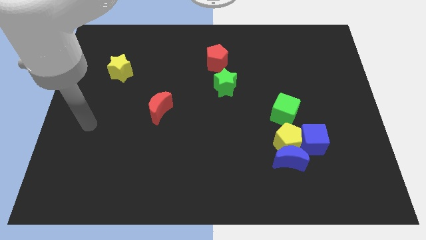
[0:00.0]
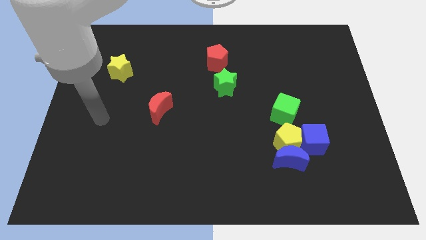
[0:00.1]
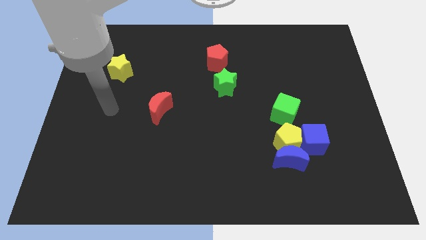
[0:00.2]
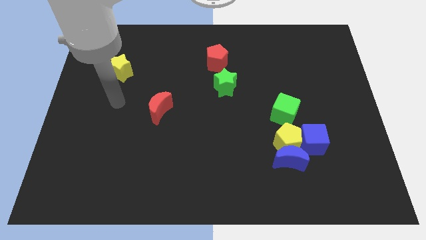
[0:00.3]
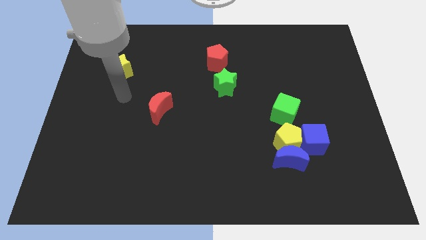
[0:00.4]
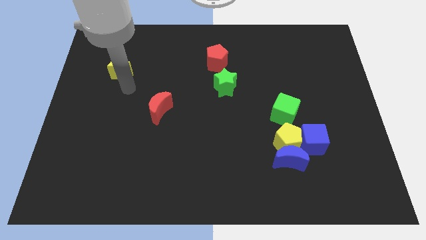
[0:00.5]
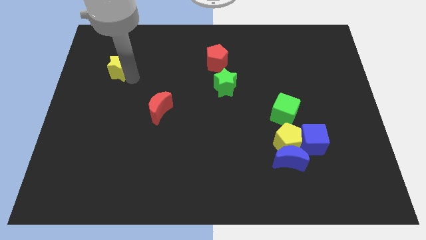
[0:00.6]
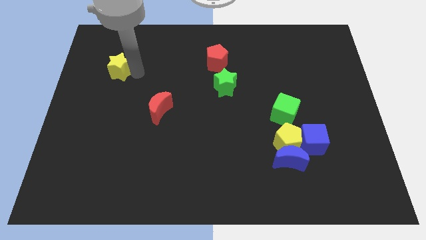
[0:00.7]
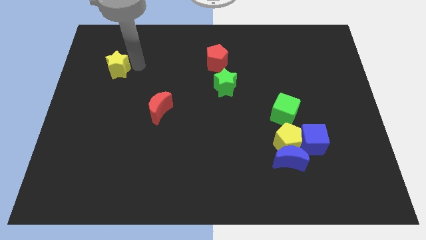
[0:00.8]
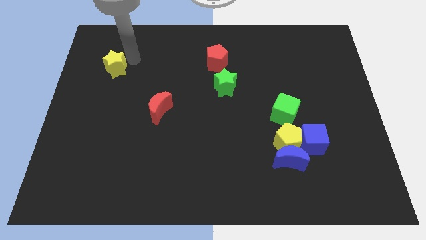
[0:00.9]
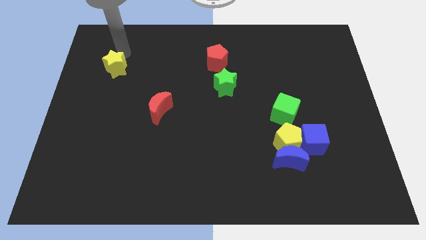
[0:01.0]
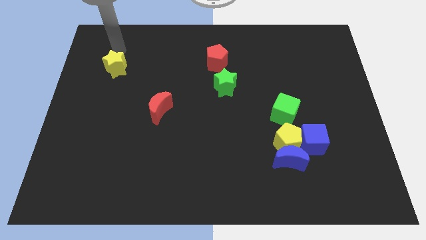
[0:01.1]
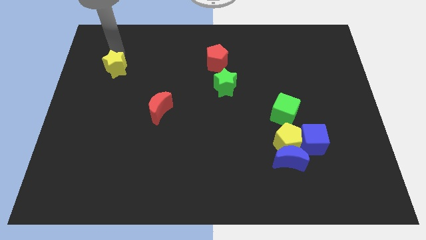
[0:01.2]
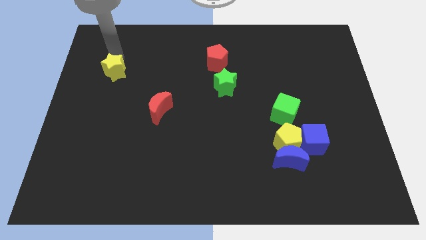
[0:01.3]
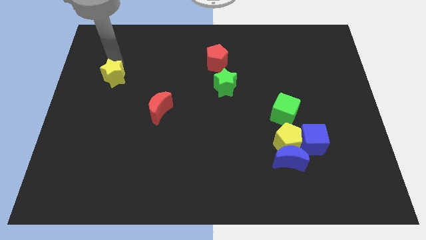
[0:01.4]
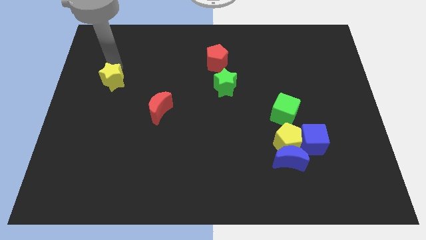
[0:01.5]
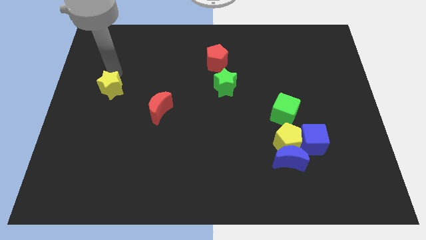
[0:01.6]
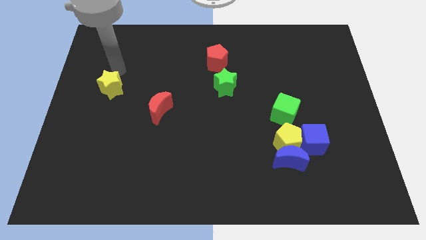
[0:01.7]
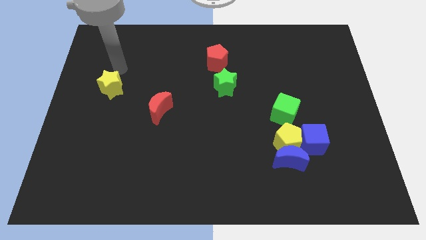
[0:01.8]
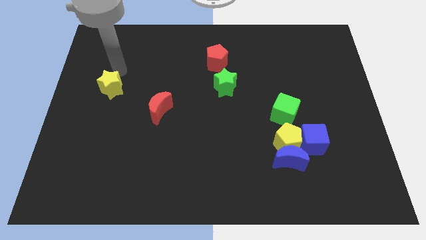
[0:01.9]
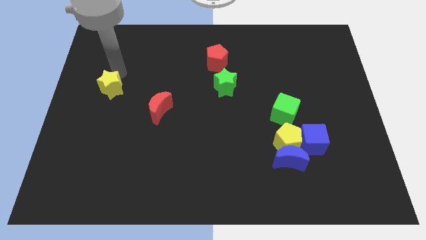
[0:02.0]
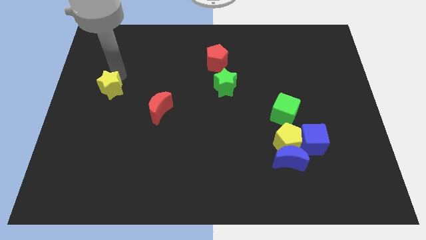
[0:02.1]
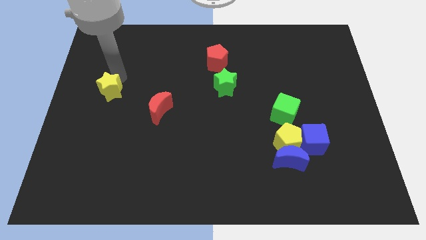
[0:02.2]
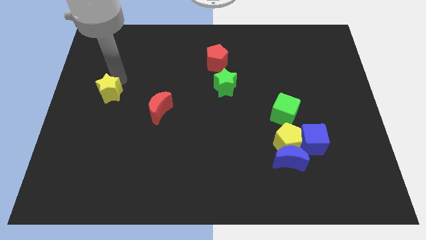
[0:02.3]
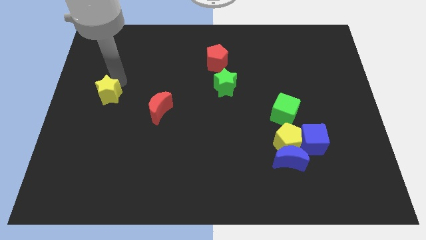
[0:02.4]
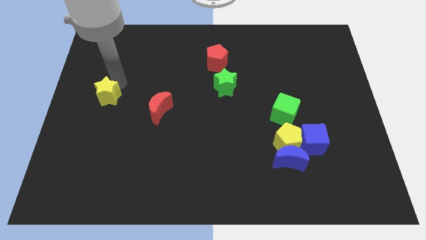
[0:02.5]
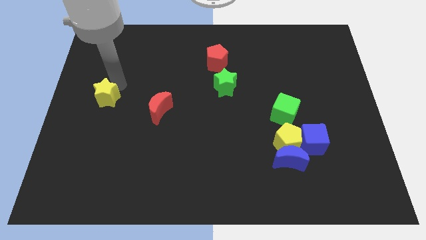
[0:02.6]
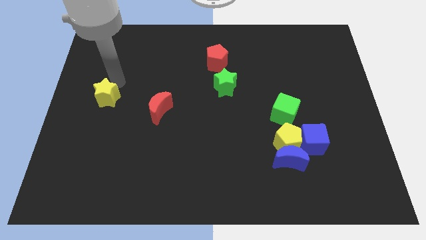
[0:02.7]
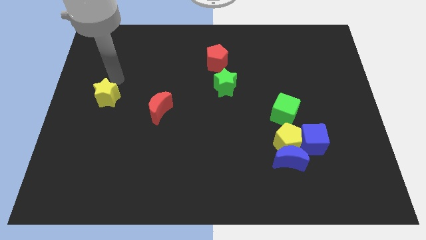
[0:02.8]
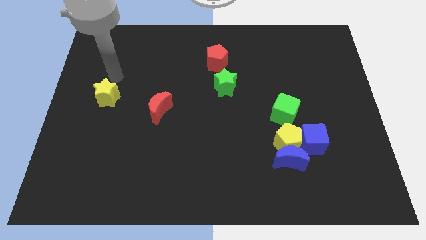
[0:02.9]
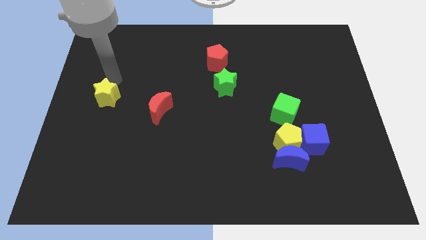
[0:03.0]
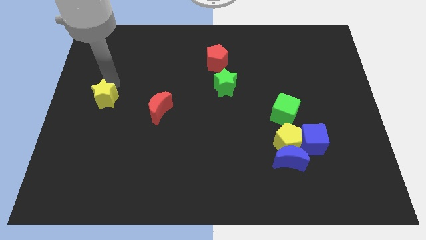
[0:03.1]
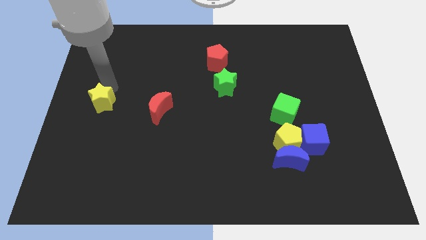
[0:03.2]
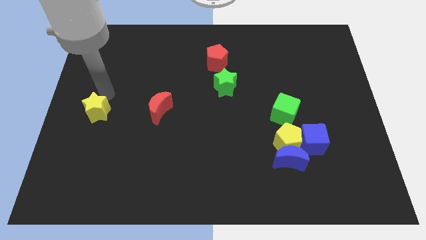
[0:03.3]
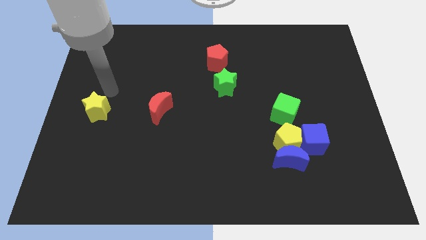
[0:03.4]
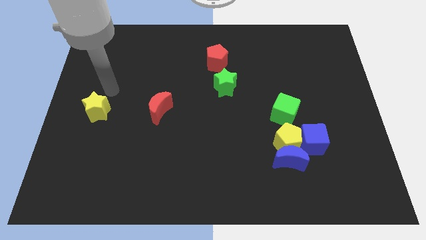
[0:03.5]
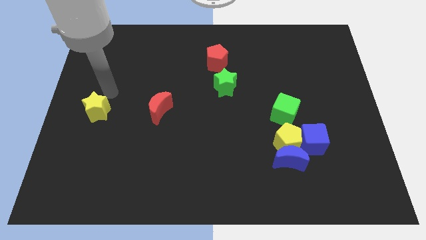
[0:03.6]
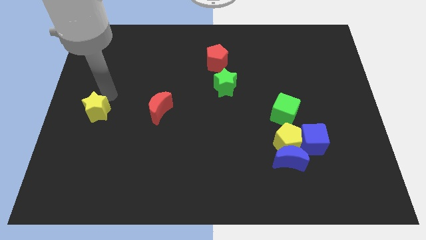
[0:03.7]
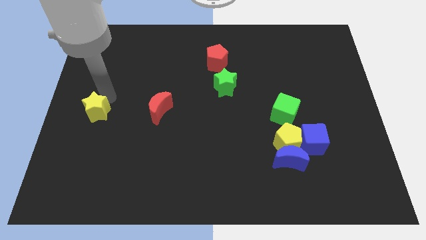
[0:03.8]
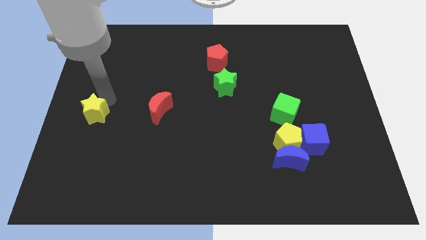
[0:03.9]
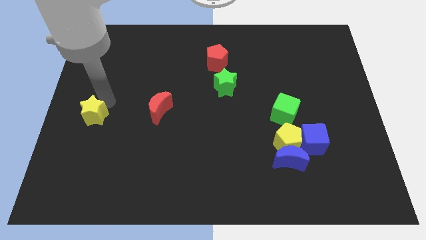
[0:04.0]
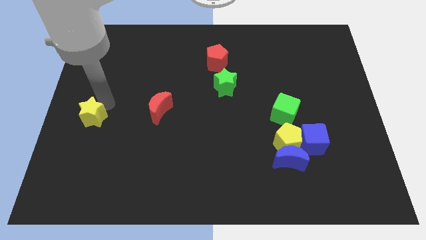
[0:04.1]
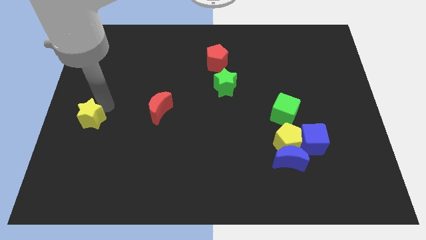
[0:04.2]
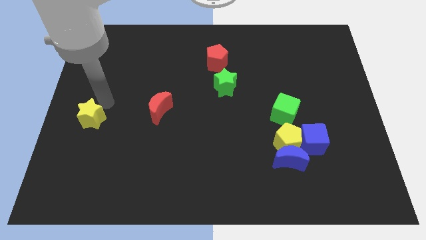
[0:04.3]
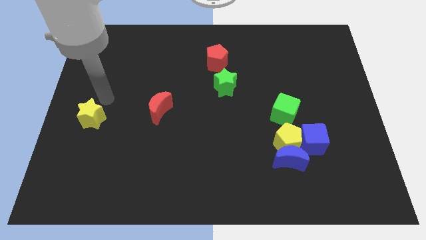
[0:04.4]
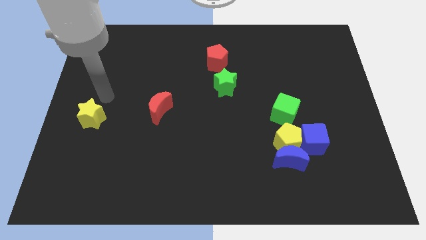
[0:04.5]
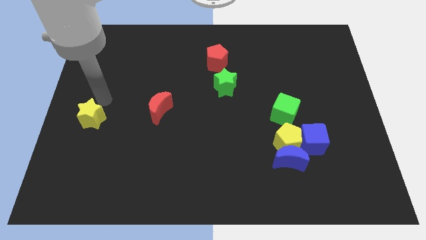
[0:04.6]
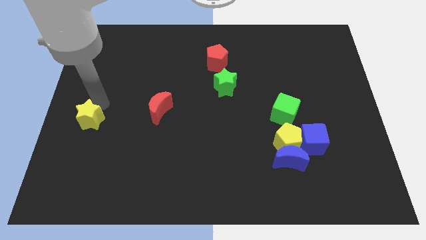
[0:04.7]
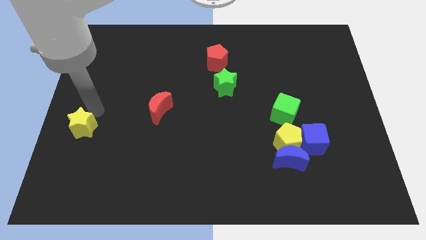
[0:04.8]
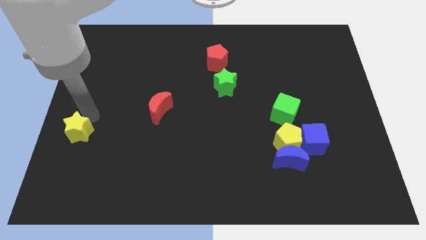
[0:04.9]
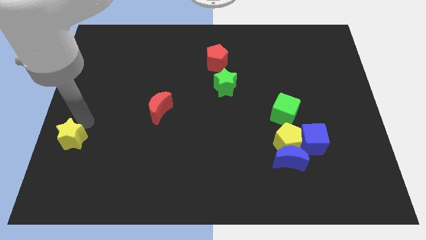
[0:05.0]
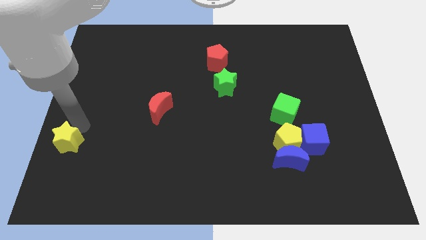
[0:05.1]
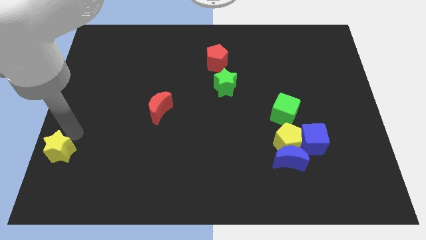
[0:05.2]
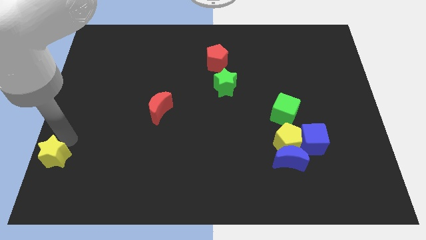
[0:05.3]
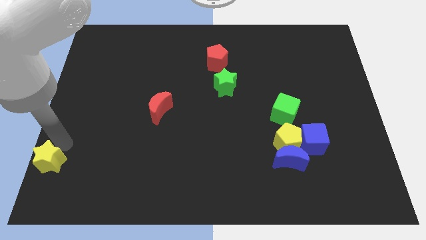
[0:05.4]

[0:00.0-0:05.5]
move the yellow star to the bottom left corner

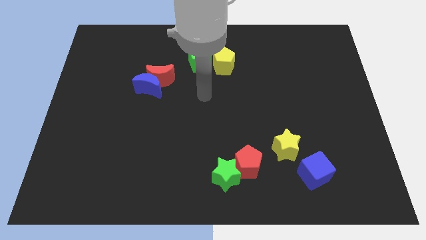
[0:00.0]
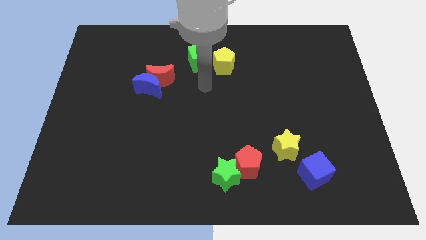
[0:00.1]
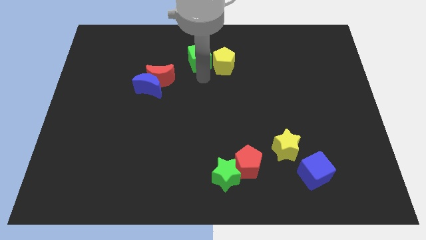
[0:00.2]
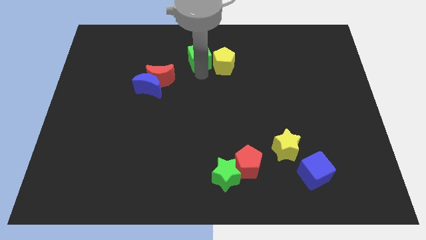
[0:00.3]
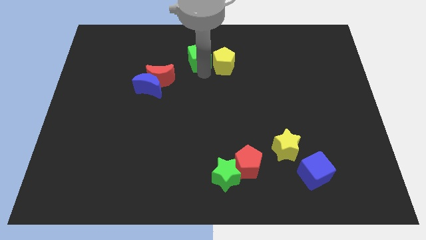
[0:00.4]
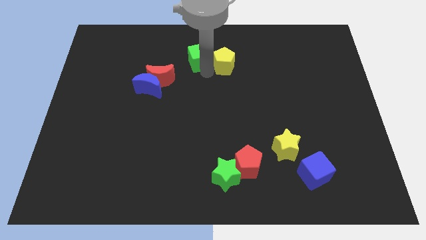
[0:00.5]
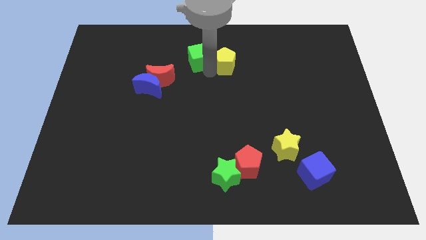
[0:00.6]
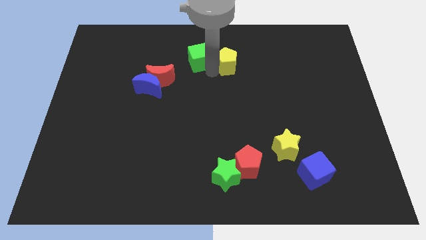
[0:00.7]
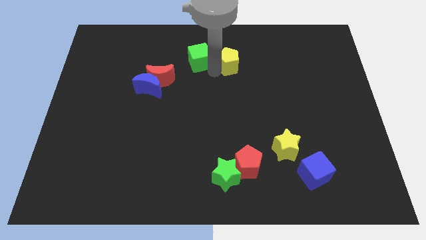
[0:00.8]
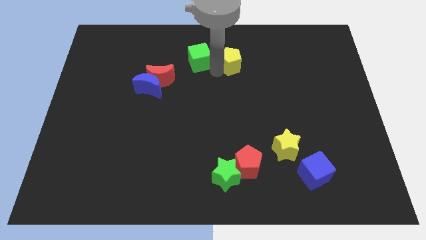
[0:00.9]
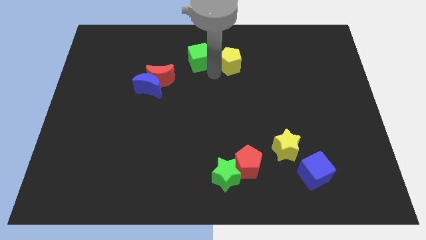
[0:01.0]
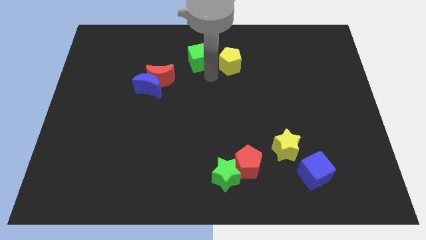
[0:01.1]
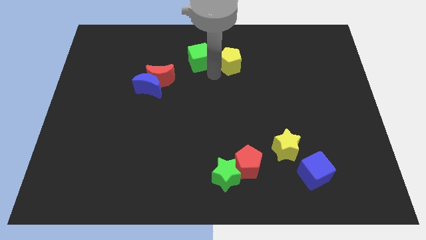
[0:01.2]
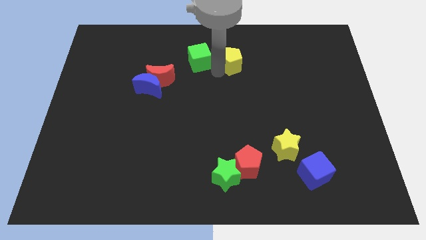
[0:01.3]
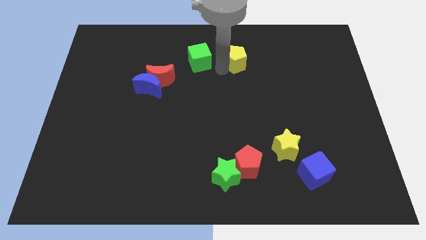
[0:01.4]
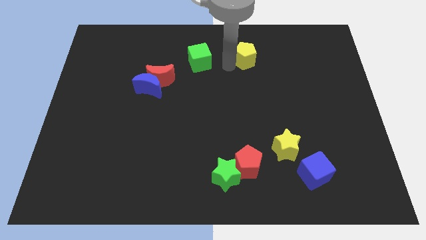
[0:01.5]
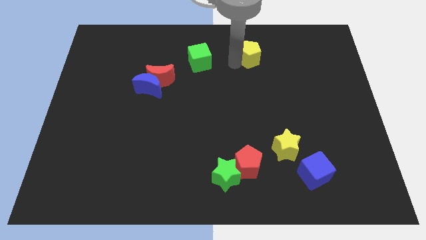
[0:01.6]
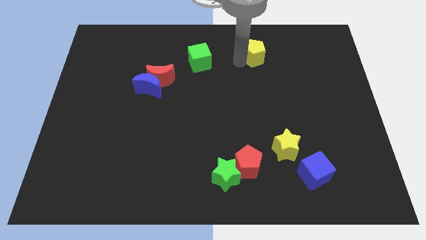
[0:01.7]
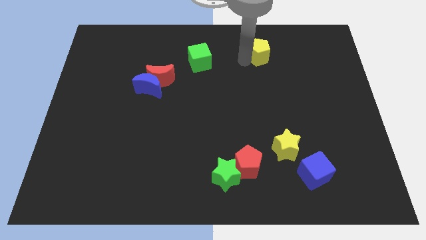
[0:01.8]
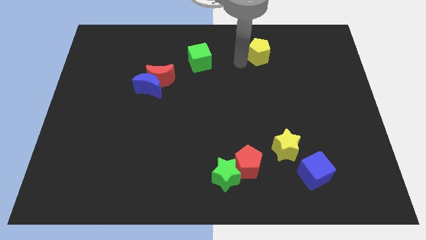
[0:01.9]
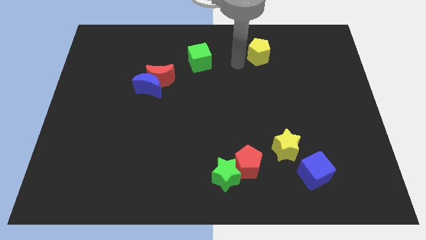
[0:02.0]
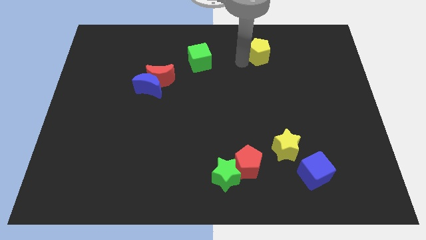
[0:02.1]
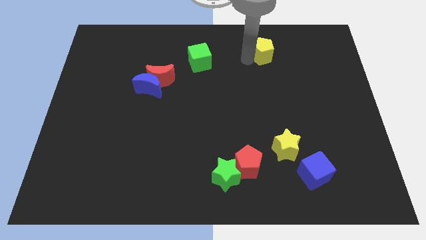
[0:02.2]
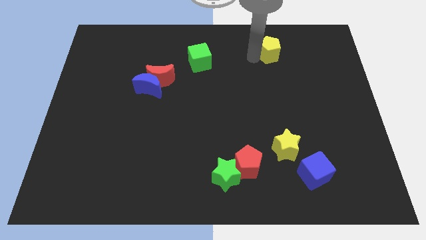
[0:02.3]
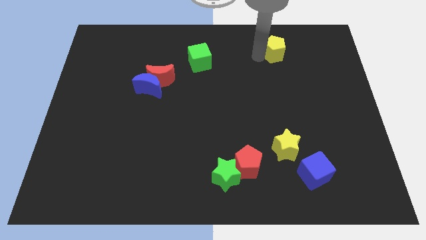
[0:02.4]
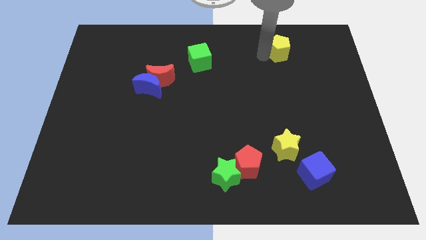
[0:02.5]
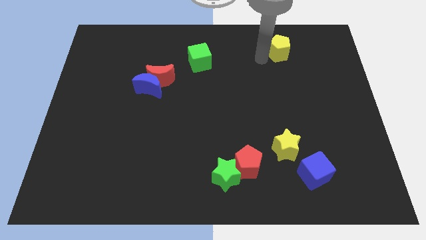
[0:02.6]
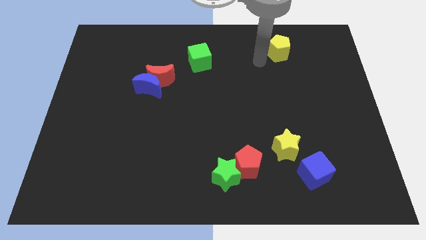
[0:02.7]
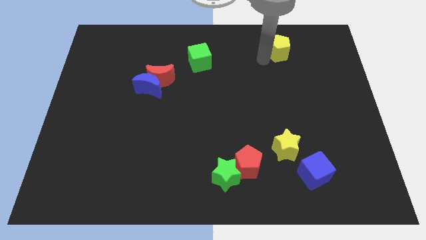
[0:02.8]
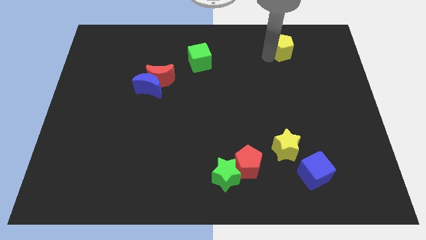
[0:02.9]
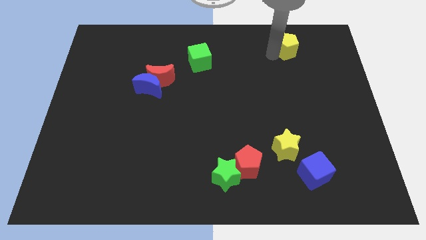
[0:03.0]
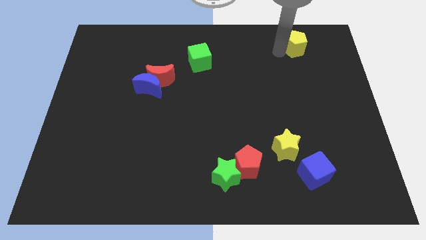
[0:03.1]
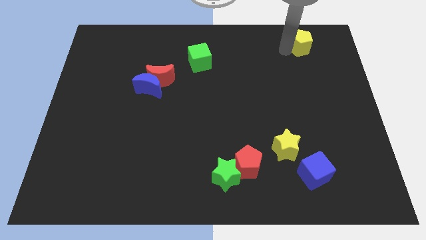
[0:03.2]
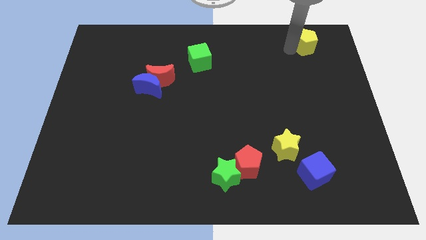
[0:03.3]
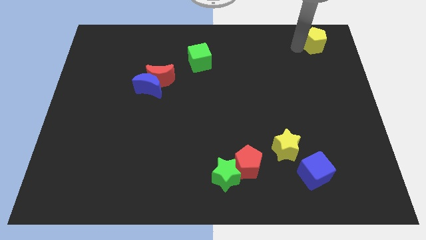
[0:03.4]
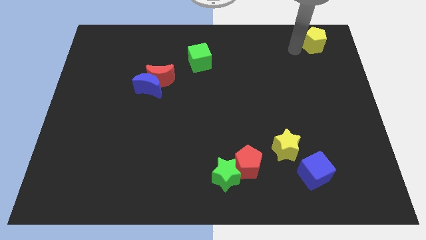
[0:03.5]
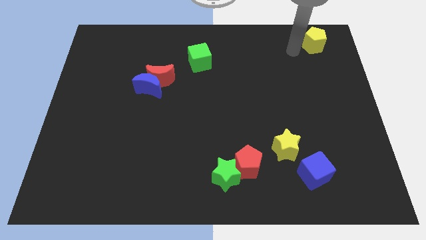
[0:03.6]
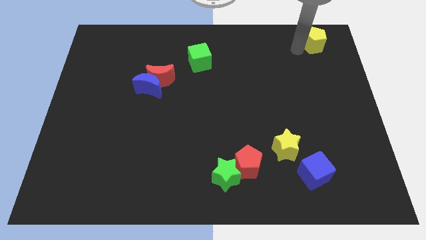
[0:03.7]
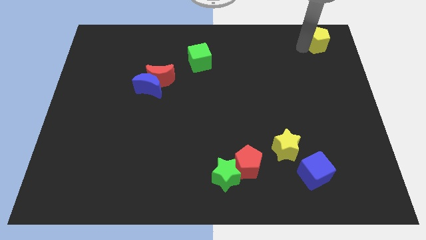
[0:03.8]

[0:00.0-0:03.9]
push the yellow pentagon to the top right
